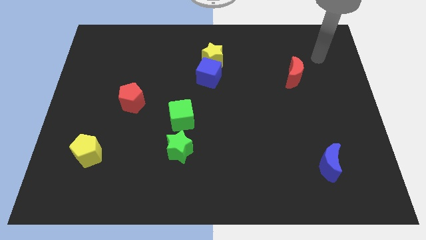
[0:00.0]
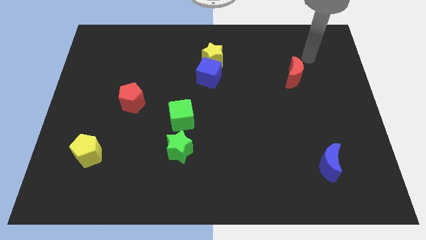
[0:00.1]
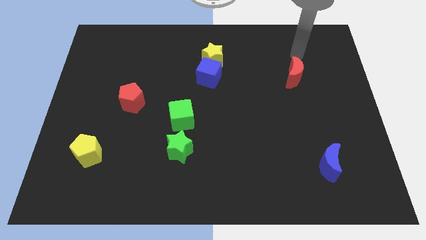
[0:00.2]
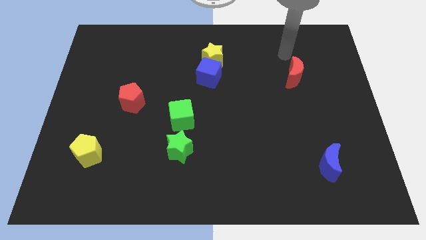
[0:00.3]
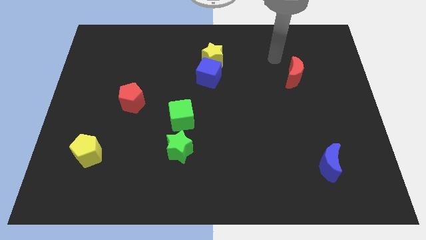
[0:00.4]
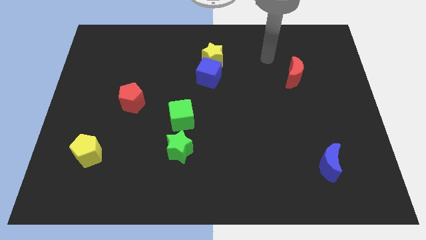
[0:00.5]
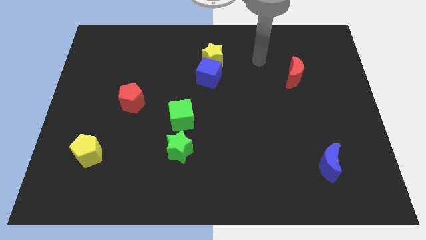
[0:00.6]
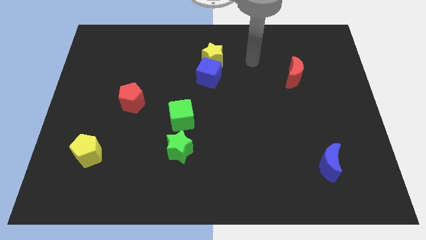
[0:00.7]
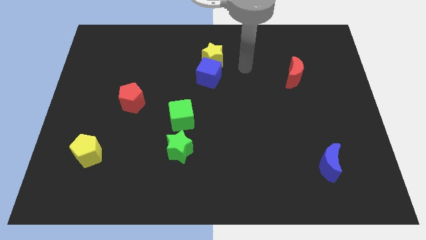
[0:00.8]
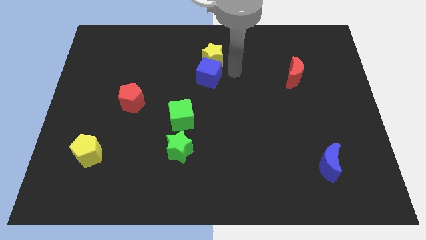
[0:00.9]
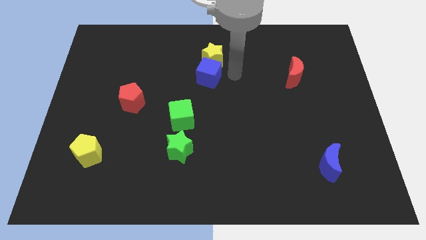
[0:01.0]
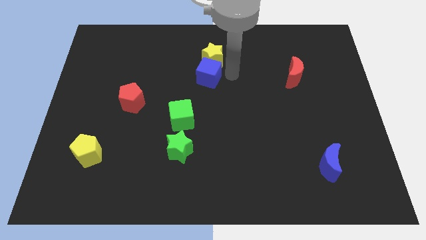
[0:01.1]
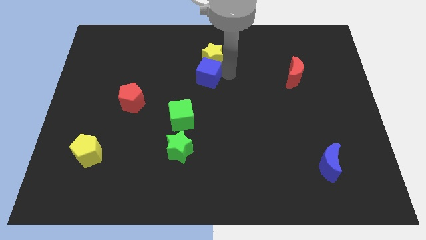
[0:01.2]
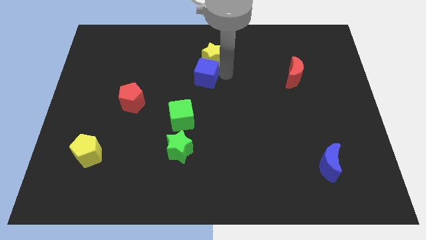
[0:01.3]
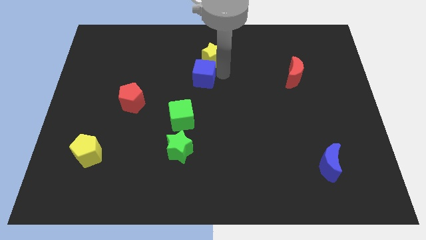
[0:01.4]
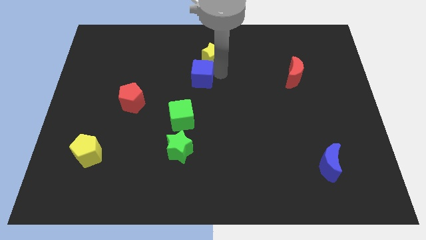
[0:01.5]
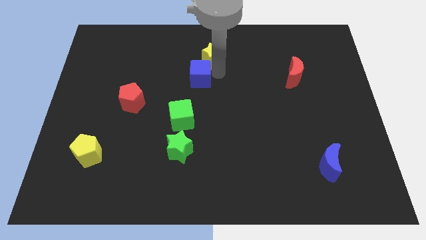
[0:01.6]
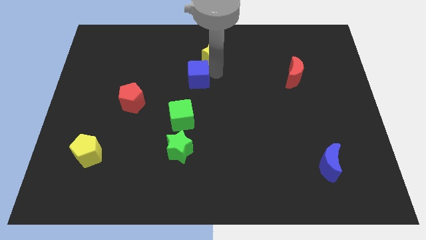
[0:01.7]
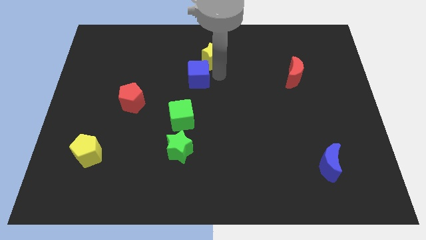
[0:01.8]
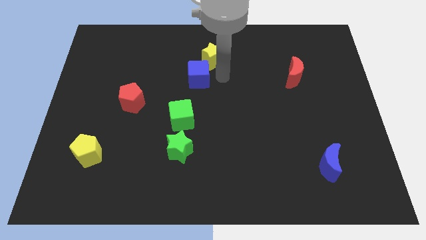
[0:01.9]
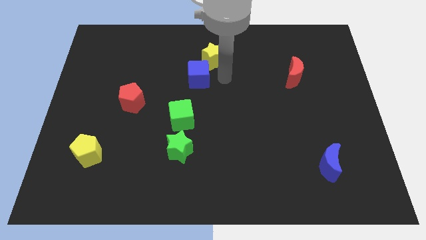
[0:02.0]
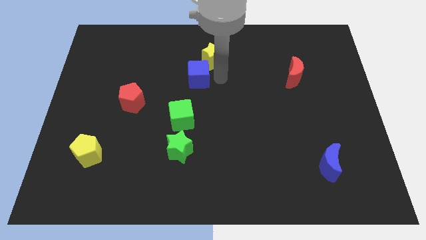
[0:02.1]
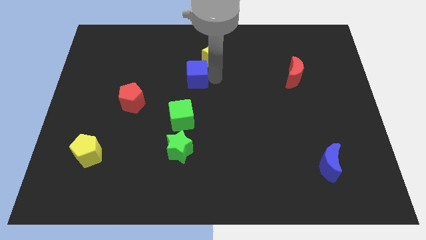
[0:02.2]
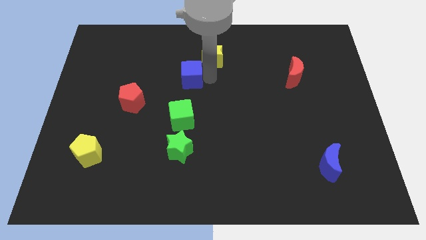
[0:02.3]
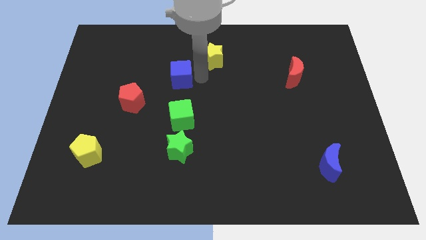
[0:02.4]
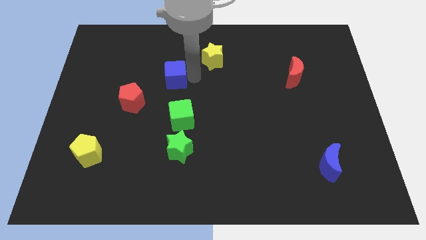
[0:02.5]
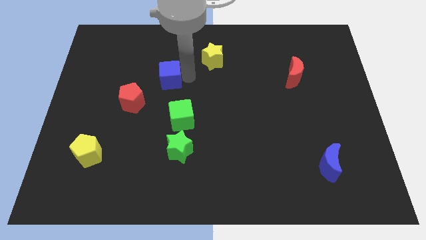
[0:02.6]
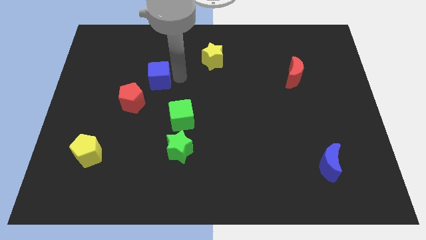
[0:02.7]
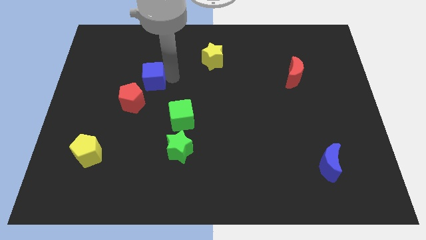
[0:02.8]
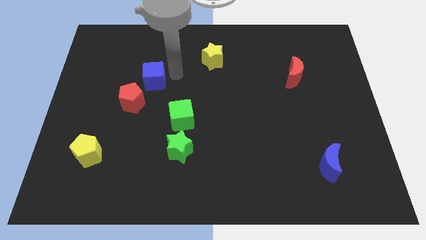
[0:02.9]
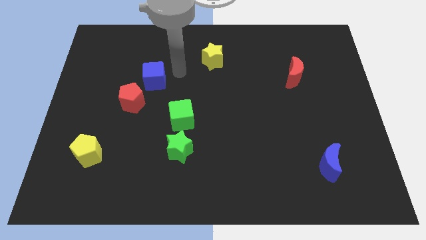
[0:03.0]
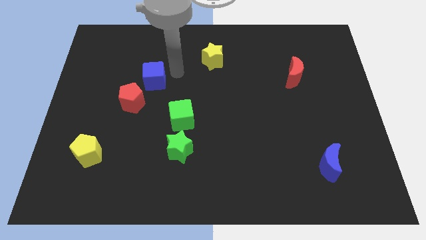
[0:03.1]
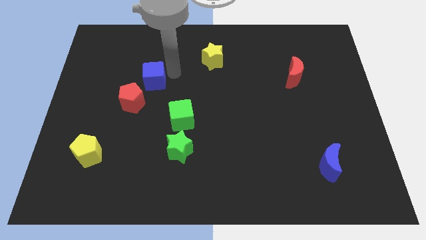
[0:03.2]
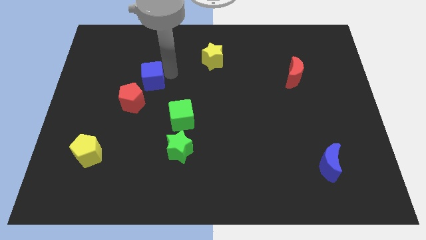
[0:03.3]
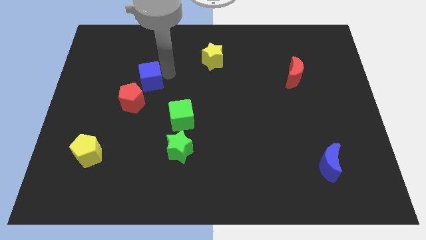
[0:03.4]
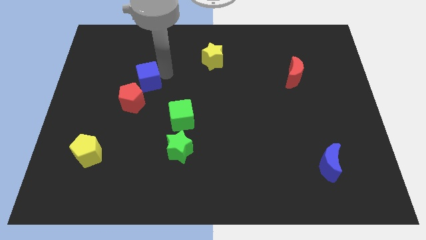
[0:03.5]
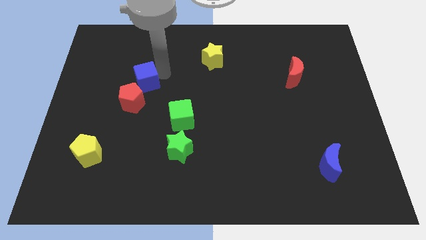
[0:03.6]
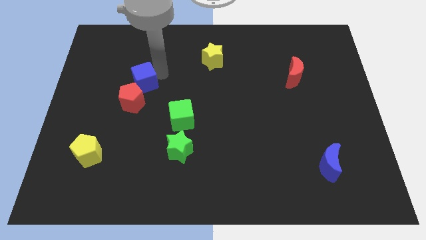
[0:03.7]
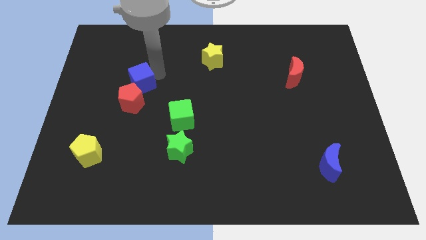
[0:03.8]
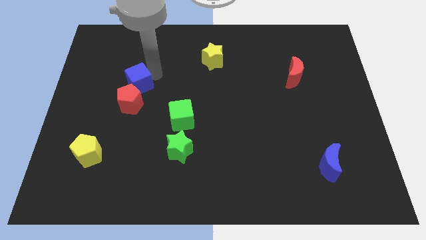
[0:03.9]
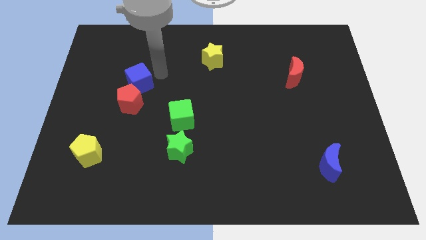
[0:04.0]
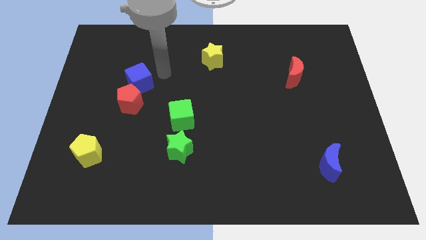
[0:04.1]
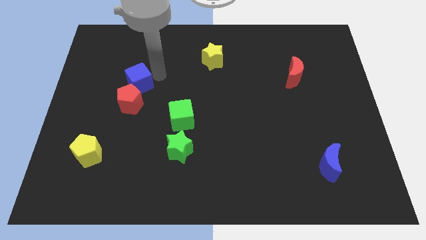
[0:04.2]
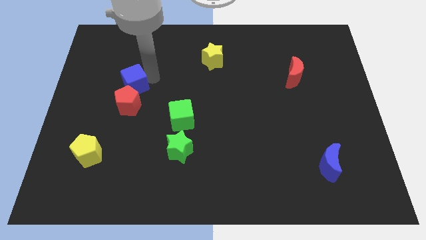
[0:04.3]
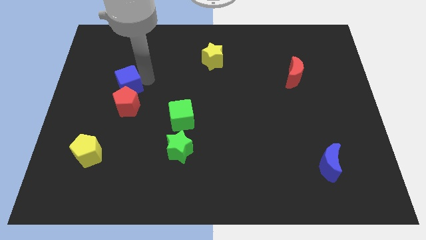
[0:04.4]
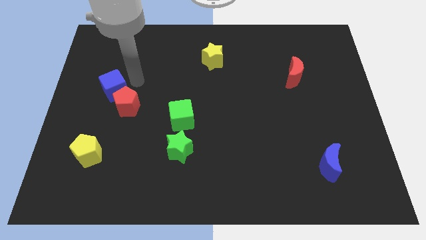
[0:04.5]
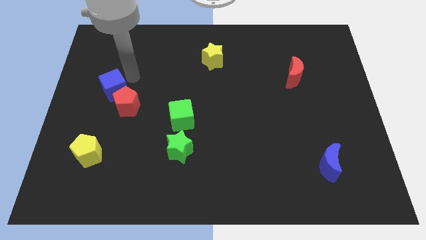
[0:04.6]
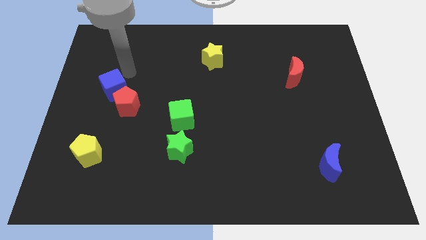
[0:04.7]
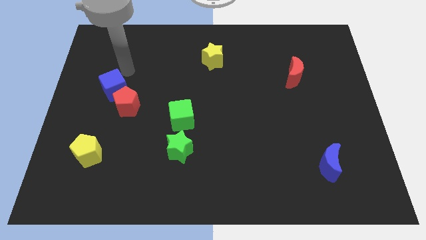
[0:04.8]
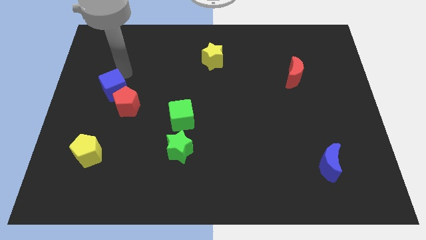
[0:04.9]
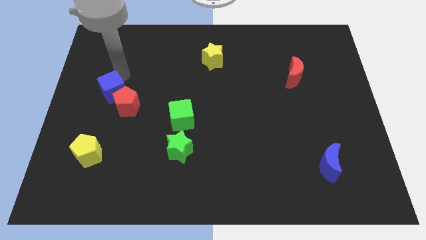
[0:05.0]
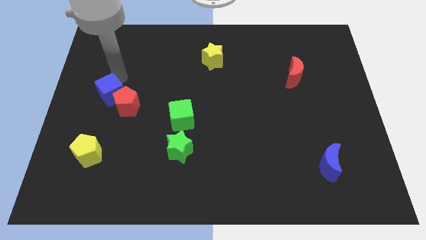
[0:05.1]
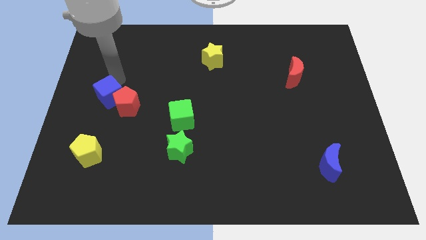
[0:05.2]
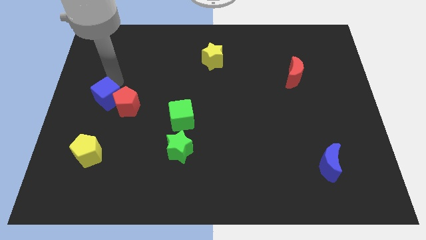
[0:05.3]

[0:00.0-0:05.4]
push the blue cube above the yellow pentagon

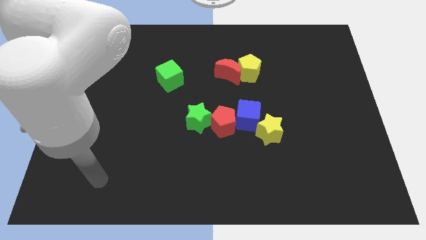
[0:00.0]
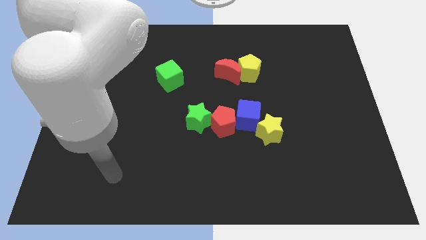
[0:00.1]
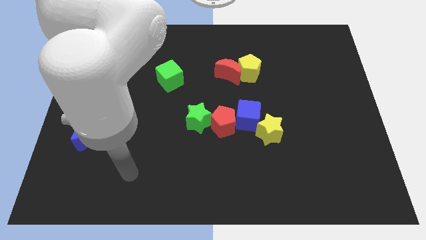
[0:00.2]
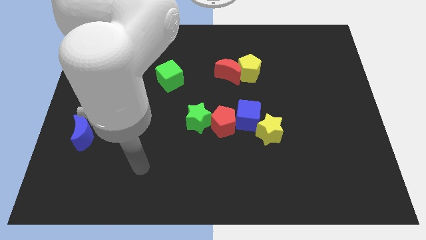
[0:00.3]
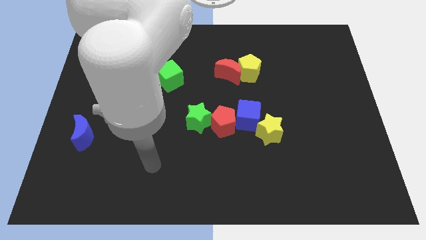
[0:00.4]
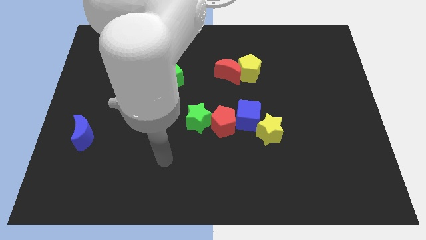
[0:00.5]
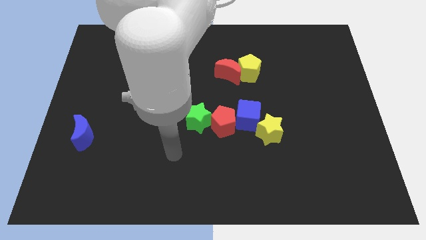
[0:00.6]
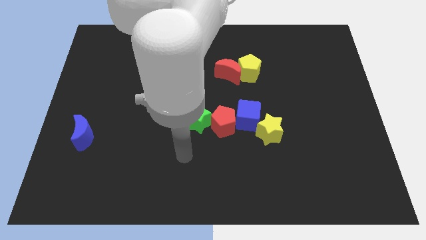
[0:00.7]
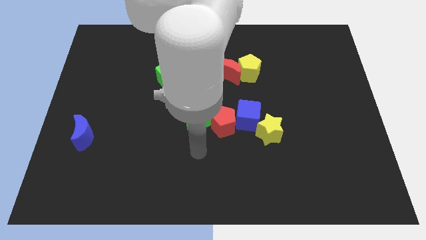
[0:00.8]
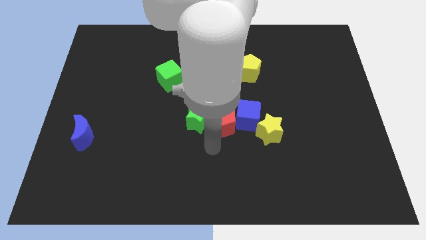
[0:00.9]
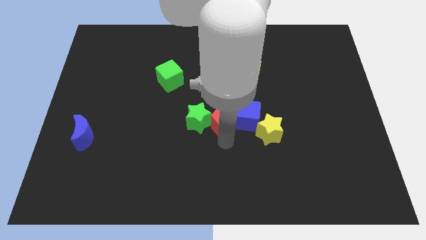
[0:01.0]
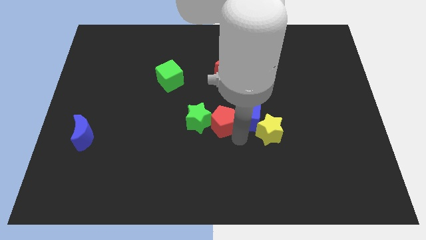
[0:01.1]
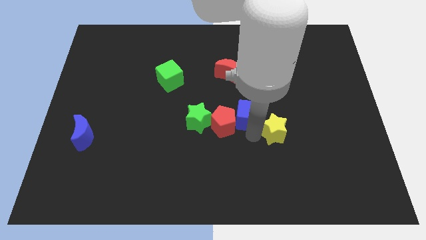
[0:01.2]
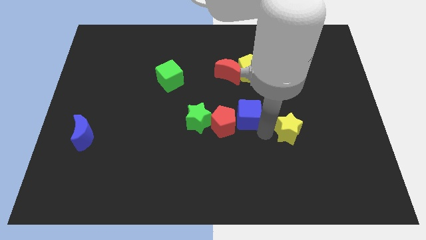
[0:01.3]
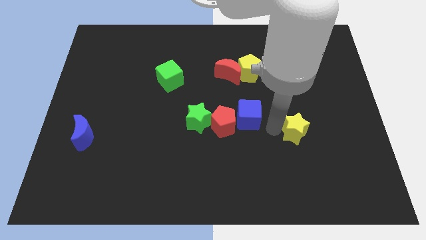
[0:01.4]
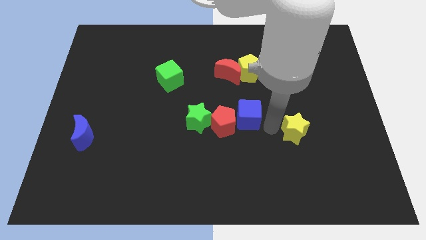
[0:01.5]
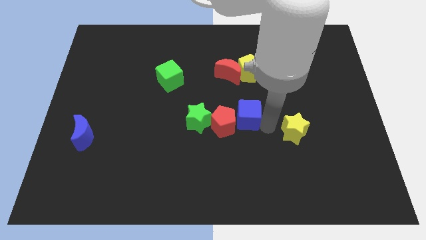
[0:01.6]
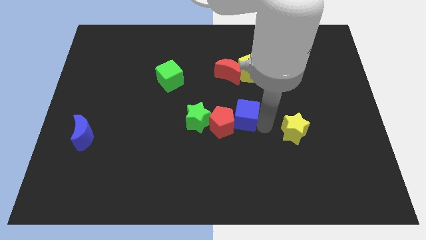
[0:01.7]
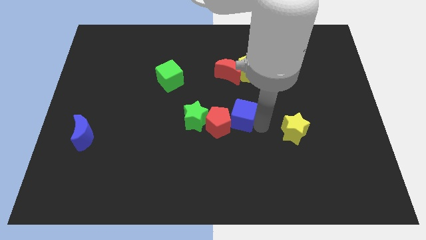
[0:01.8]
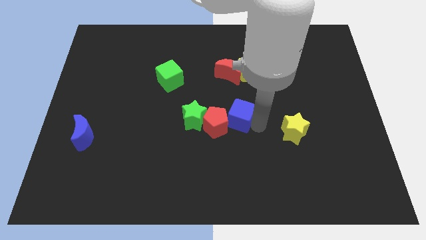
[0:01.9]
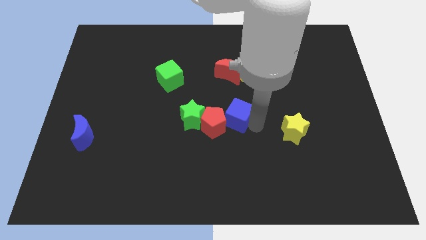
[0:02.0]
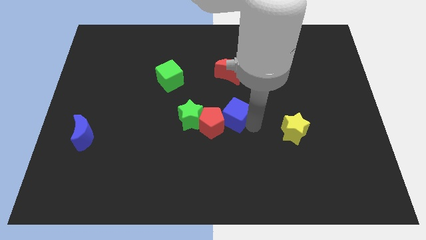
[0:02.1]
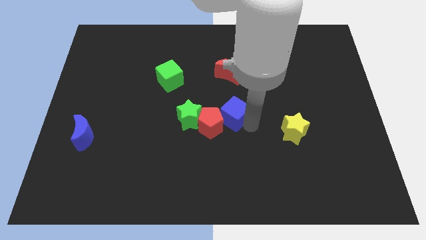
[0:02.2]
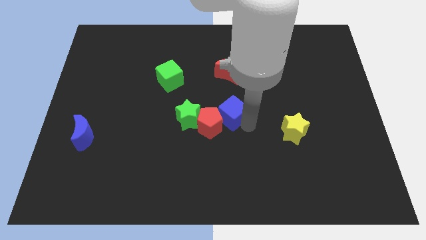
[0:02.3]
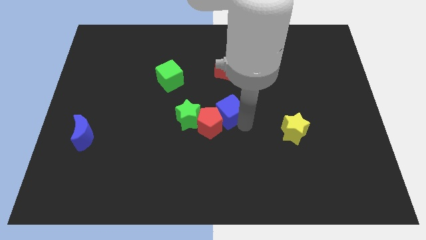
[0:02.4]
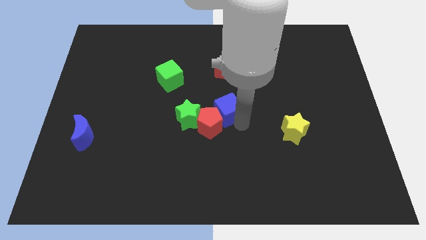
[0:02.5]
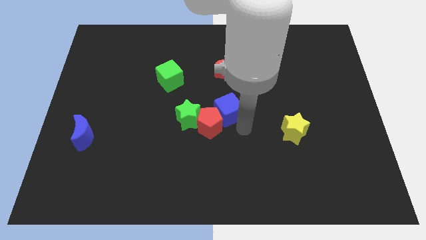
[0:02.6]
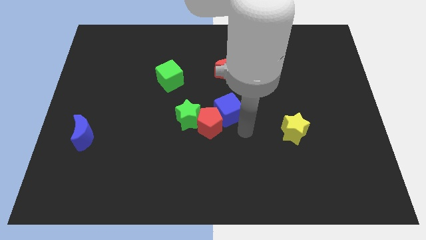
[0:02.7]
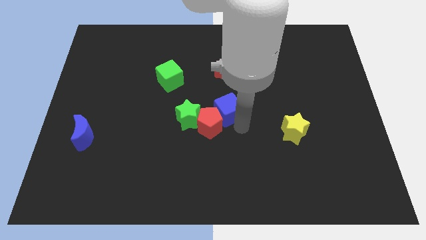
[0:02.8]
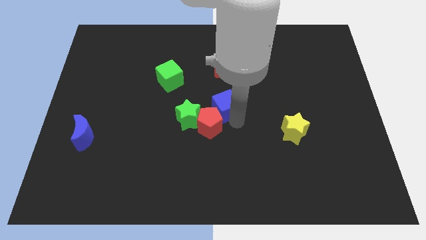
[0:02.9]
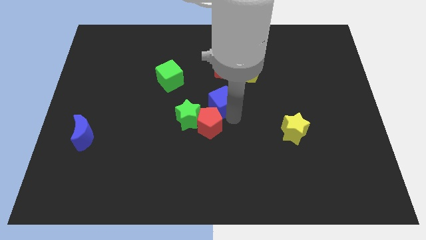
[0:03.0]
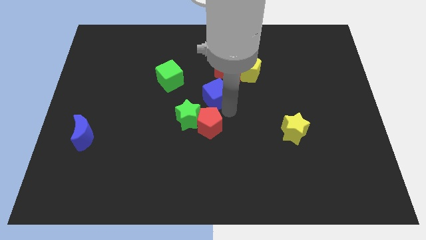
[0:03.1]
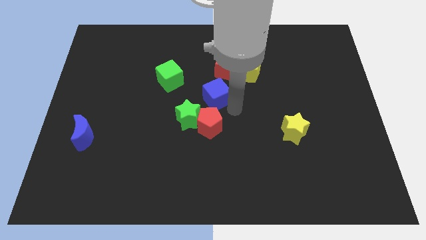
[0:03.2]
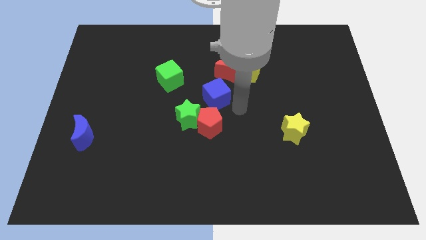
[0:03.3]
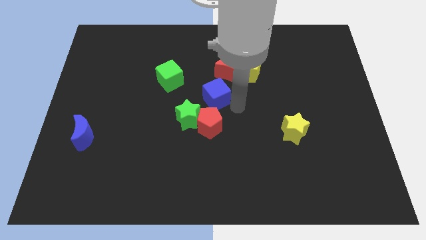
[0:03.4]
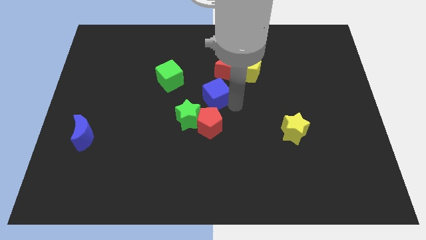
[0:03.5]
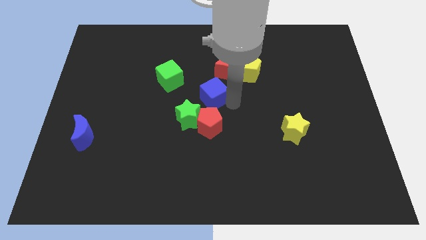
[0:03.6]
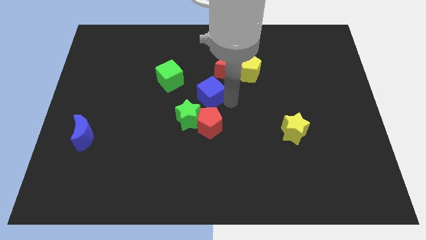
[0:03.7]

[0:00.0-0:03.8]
put the blue cube above the green star
